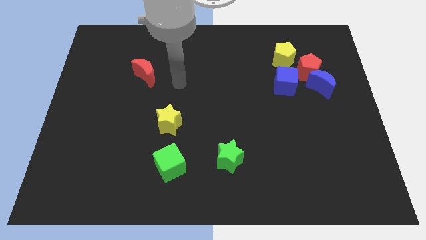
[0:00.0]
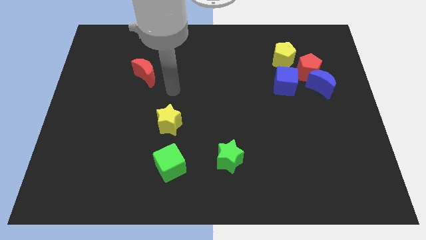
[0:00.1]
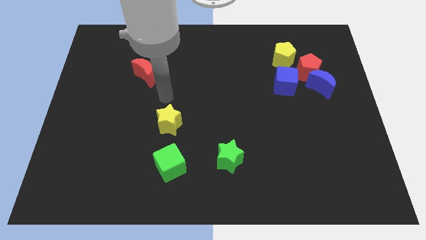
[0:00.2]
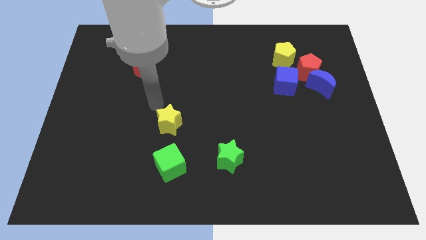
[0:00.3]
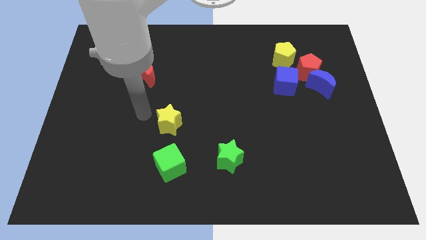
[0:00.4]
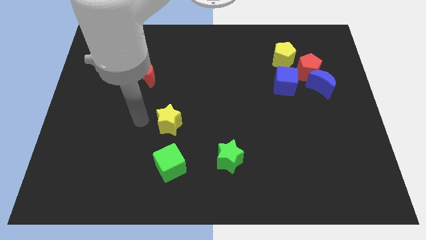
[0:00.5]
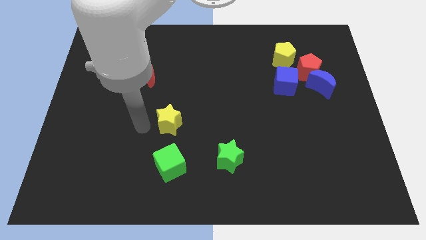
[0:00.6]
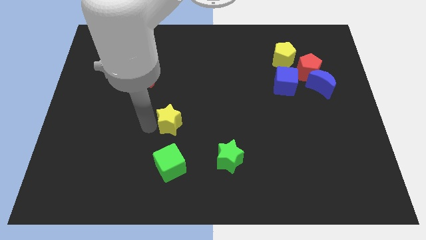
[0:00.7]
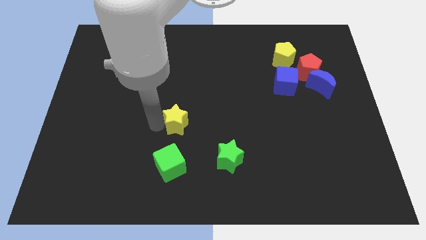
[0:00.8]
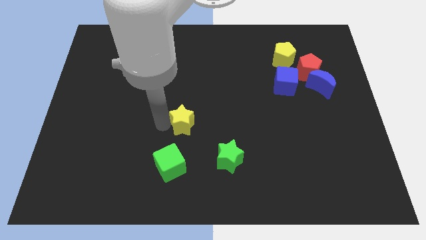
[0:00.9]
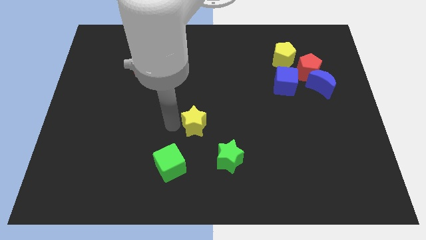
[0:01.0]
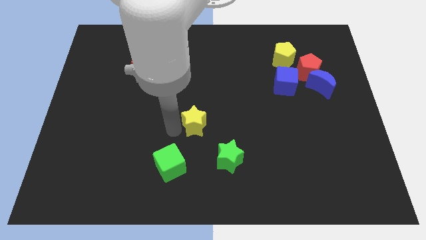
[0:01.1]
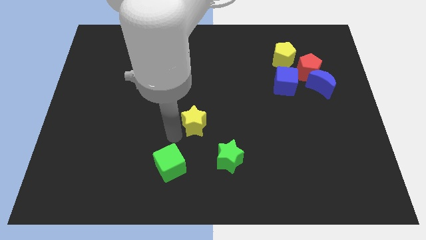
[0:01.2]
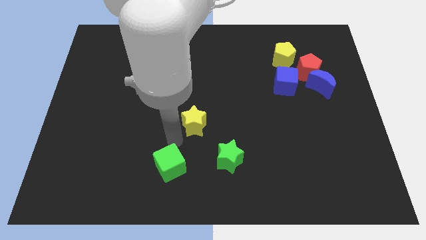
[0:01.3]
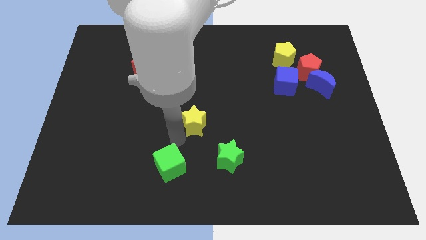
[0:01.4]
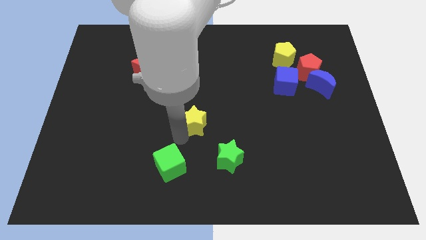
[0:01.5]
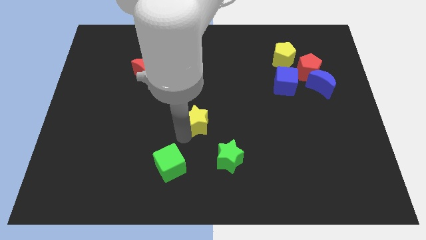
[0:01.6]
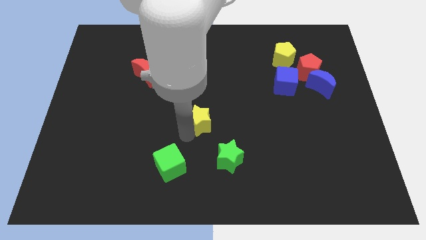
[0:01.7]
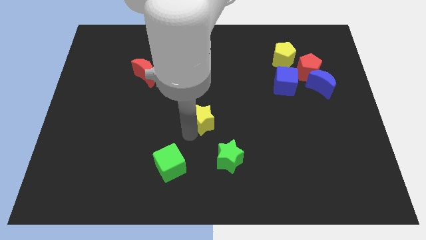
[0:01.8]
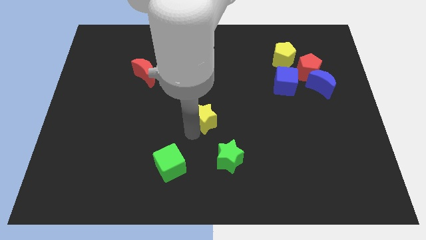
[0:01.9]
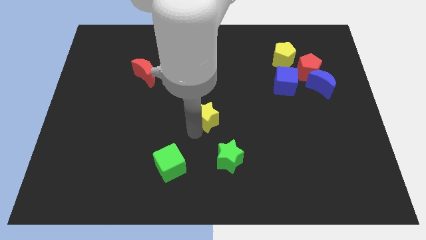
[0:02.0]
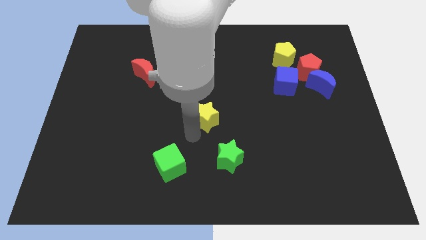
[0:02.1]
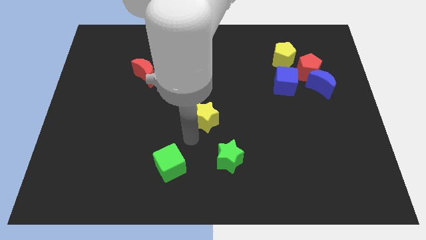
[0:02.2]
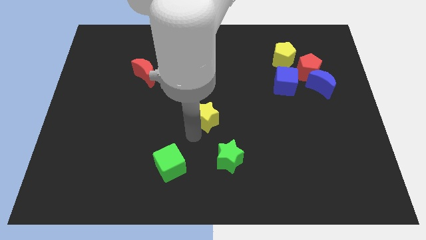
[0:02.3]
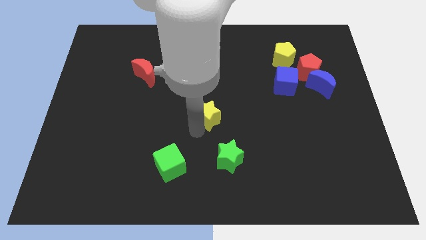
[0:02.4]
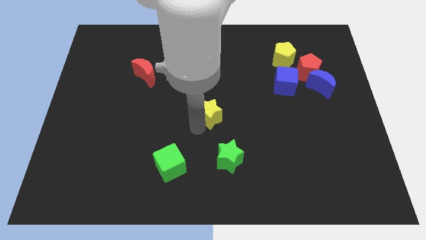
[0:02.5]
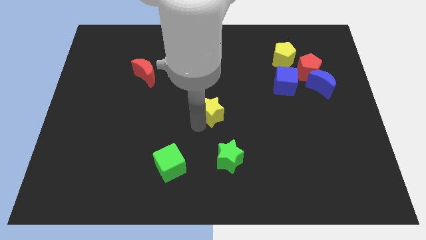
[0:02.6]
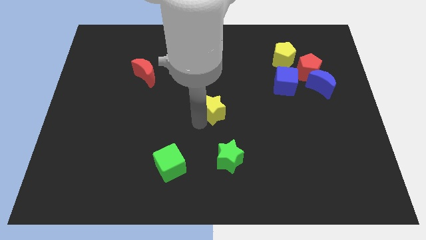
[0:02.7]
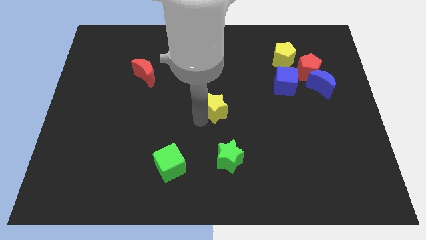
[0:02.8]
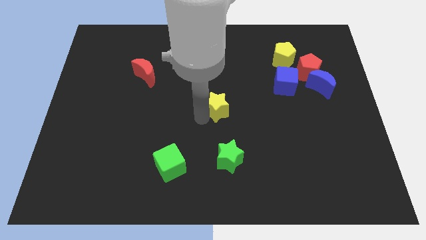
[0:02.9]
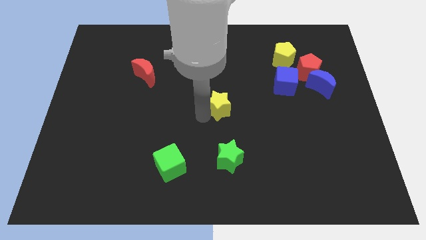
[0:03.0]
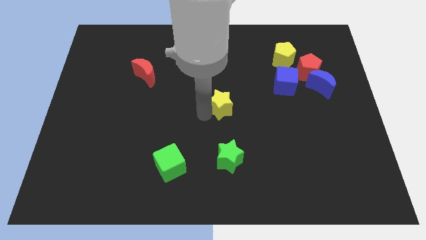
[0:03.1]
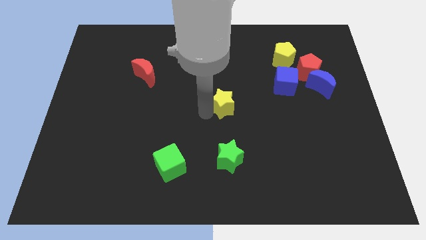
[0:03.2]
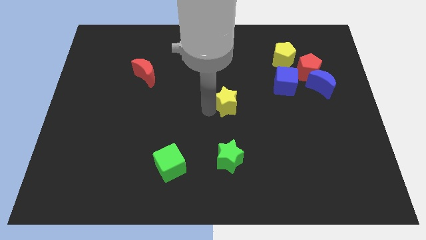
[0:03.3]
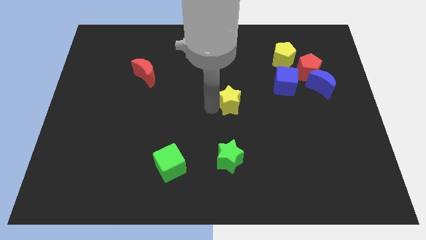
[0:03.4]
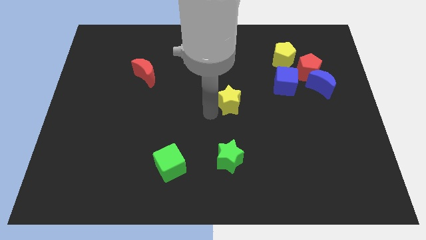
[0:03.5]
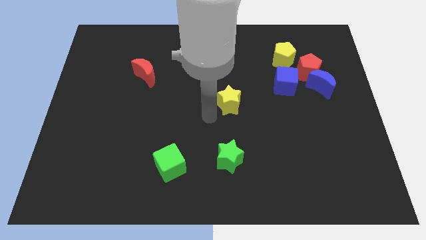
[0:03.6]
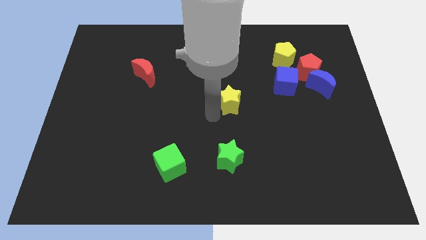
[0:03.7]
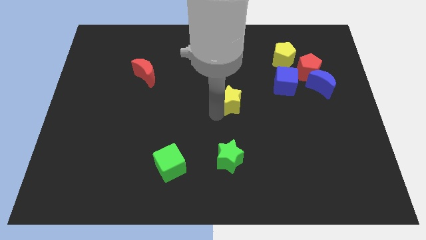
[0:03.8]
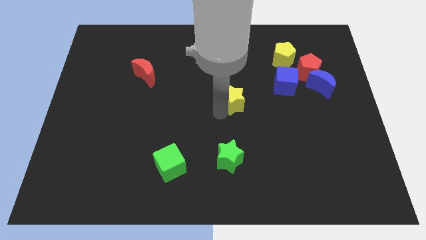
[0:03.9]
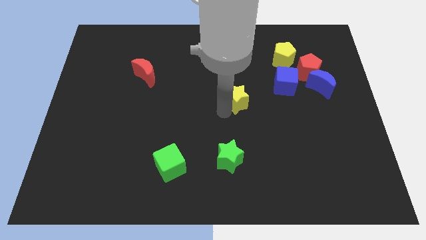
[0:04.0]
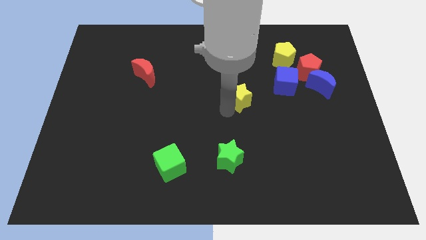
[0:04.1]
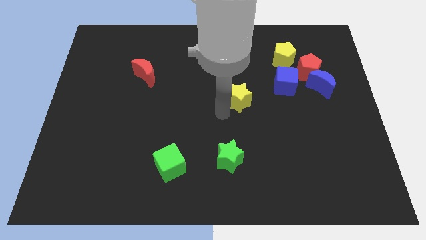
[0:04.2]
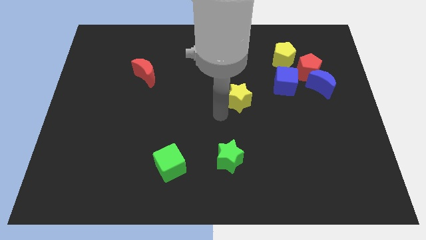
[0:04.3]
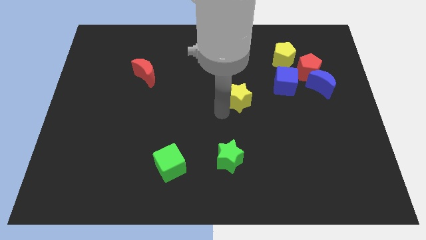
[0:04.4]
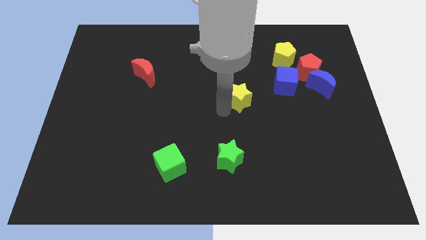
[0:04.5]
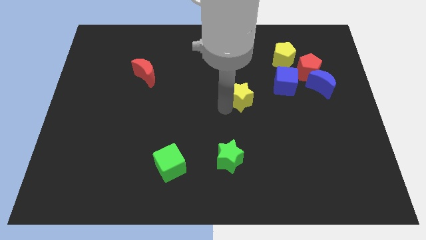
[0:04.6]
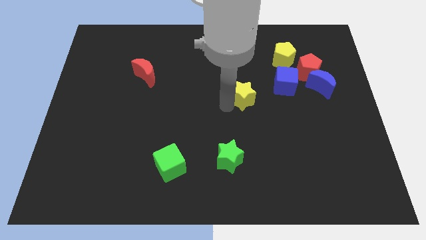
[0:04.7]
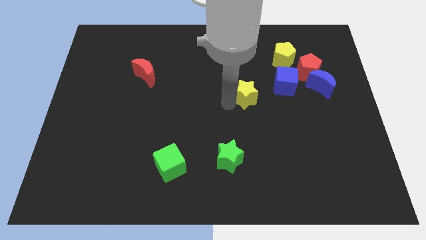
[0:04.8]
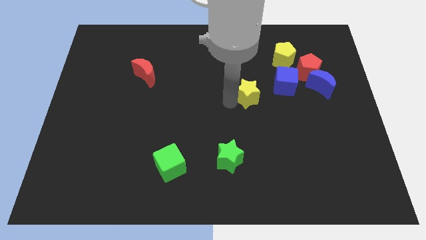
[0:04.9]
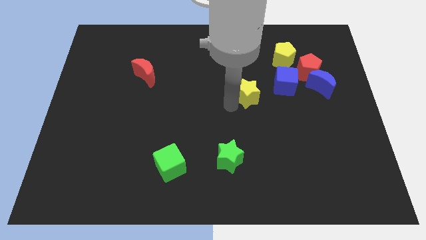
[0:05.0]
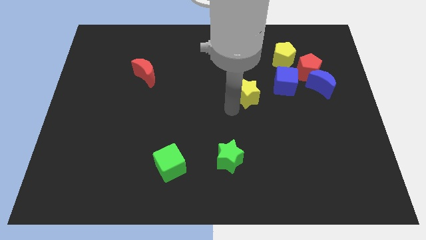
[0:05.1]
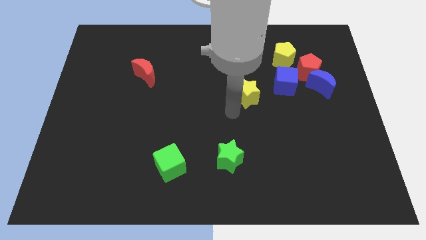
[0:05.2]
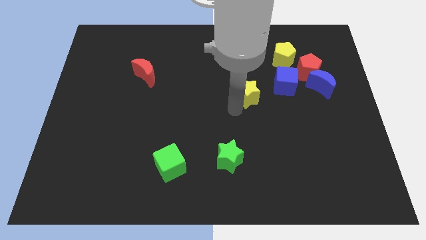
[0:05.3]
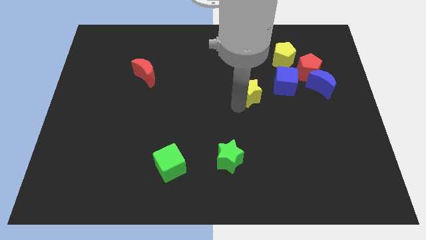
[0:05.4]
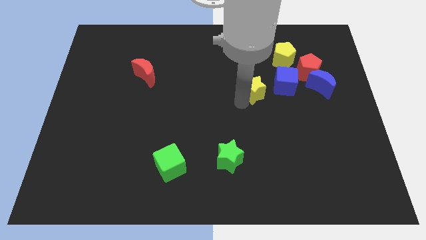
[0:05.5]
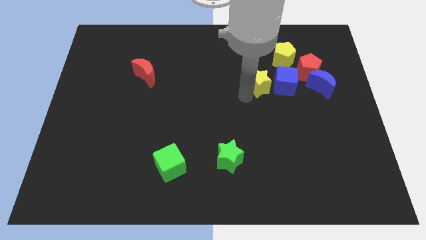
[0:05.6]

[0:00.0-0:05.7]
slide the yellow star next to the blue cube

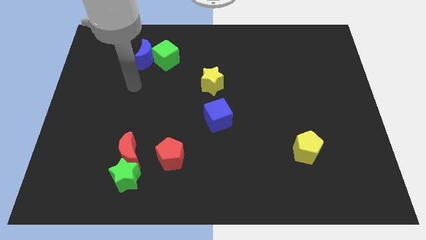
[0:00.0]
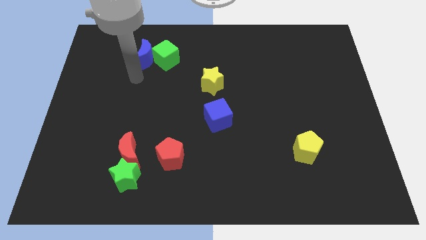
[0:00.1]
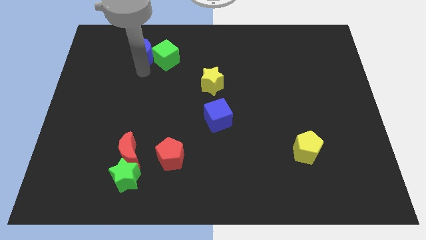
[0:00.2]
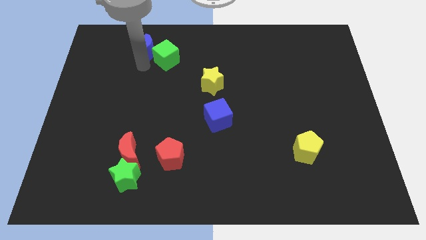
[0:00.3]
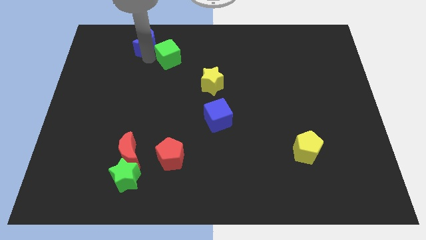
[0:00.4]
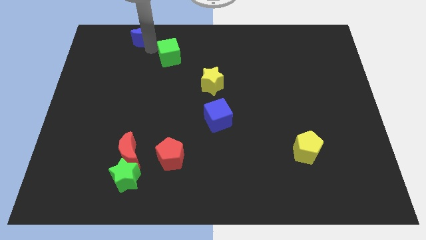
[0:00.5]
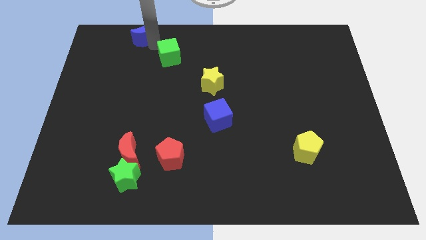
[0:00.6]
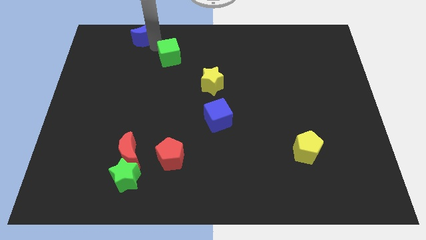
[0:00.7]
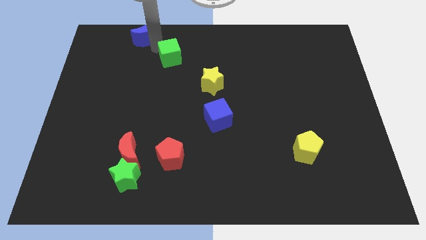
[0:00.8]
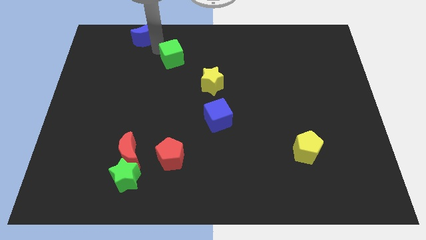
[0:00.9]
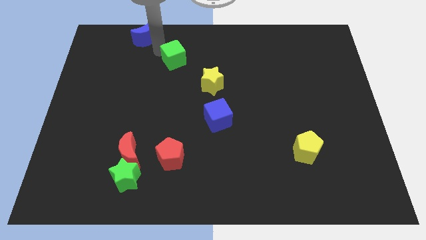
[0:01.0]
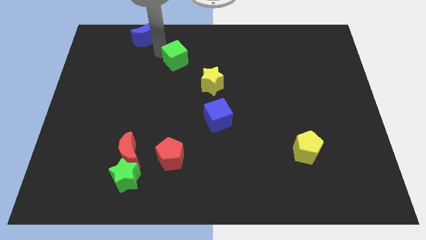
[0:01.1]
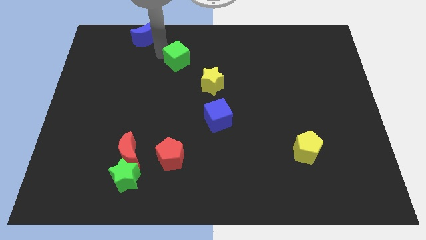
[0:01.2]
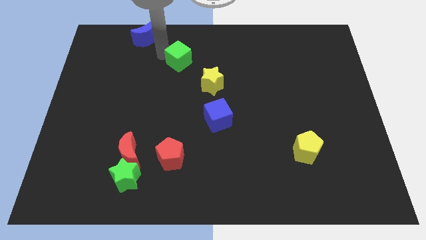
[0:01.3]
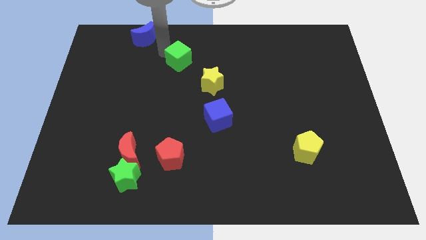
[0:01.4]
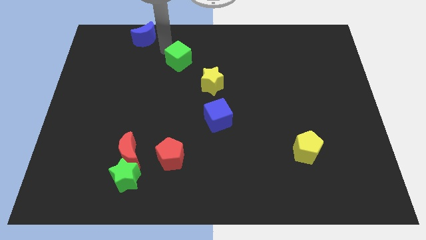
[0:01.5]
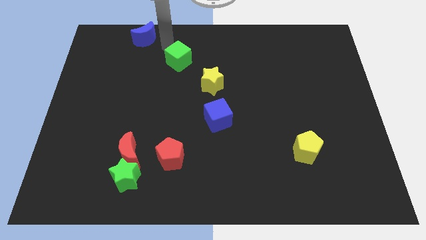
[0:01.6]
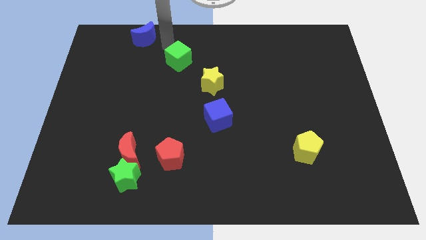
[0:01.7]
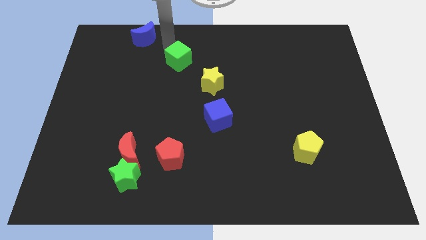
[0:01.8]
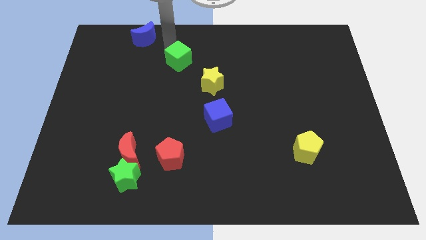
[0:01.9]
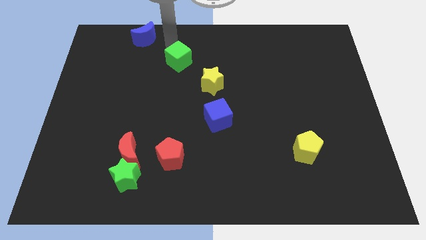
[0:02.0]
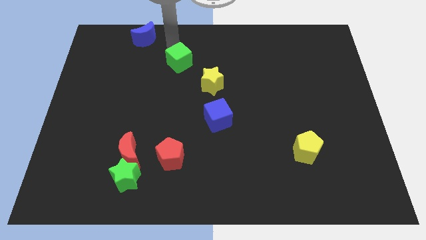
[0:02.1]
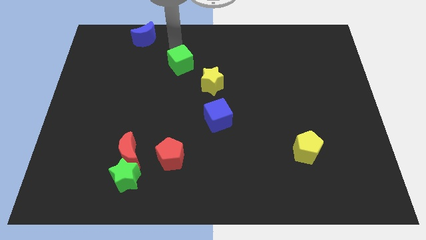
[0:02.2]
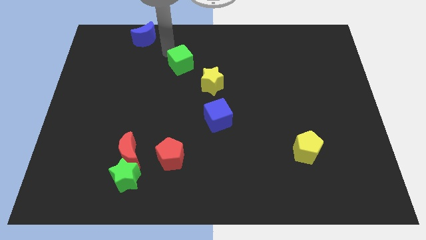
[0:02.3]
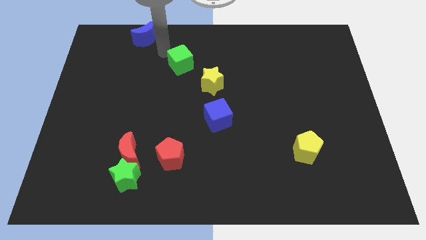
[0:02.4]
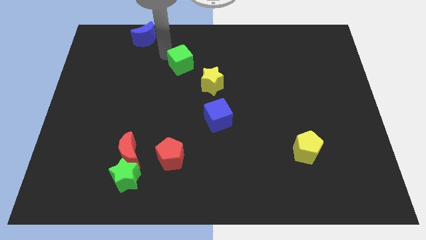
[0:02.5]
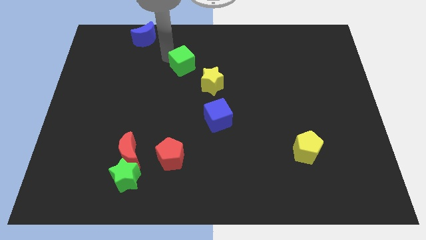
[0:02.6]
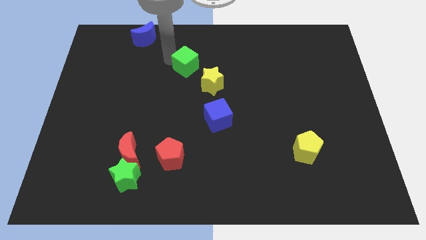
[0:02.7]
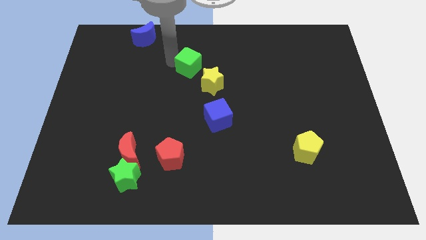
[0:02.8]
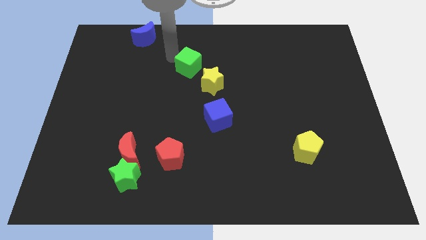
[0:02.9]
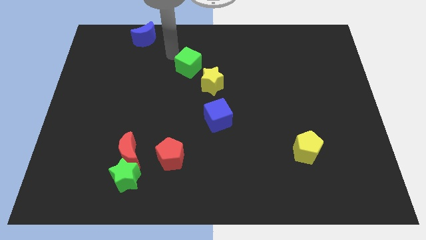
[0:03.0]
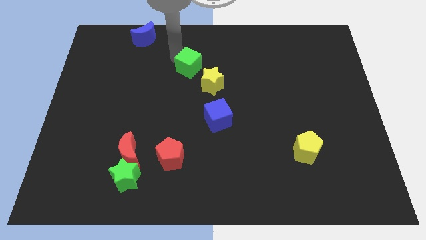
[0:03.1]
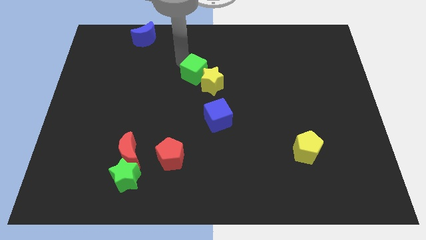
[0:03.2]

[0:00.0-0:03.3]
slide the green cube towards the yellow star
